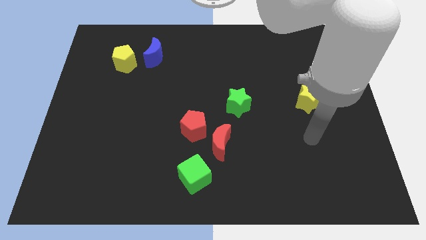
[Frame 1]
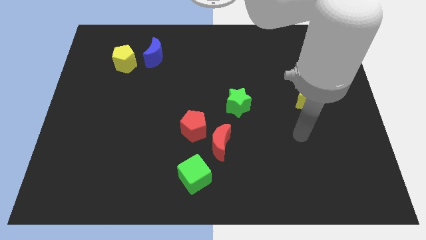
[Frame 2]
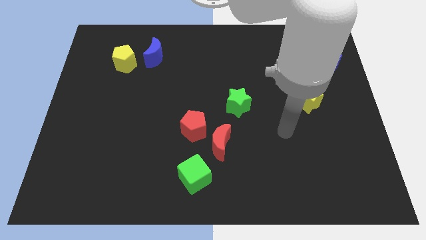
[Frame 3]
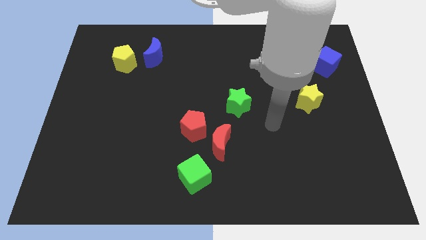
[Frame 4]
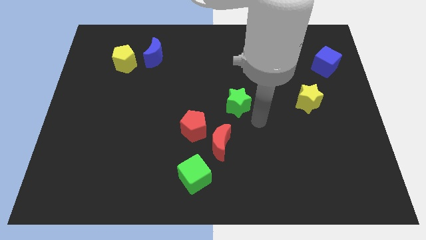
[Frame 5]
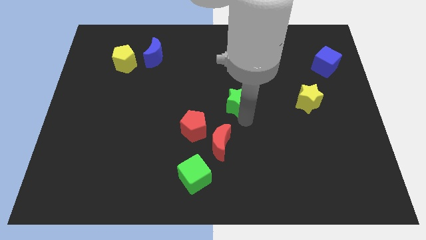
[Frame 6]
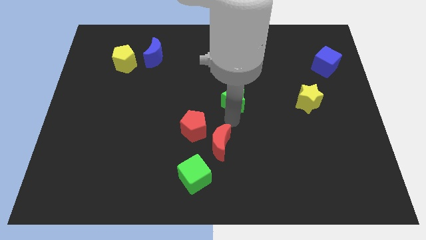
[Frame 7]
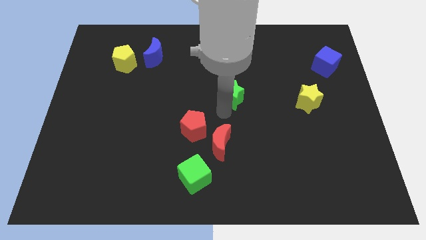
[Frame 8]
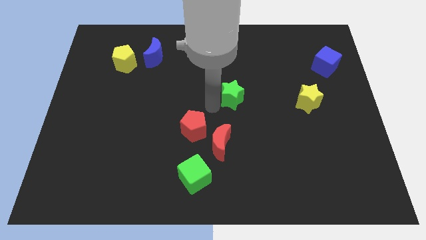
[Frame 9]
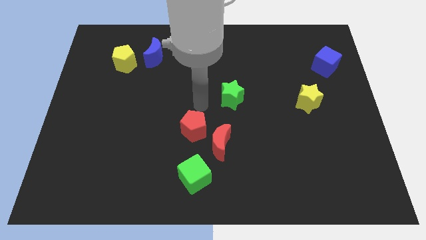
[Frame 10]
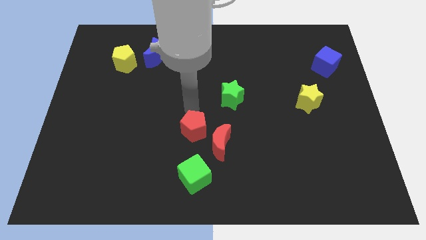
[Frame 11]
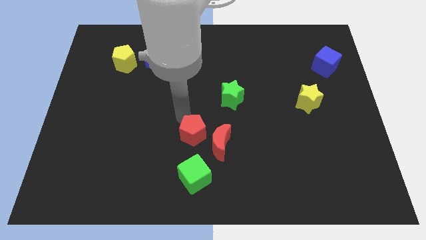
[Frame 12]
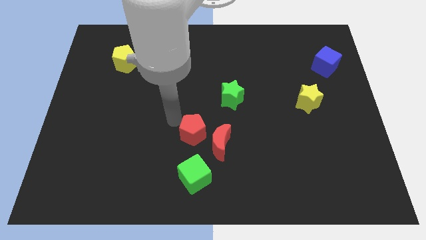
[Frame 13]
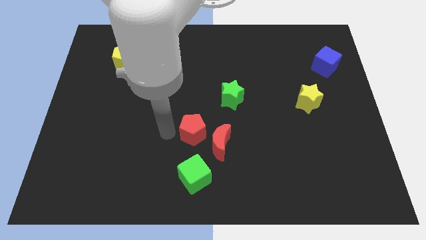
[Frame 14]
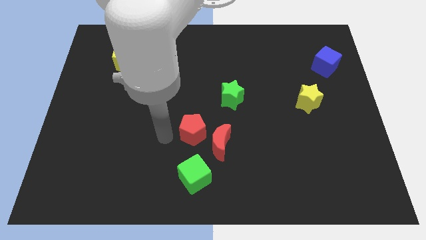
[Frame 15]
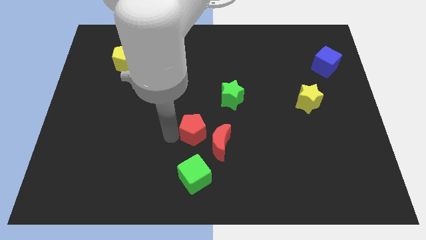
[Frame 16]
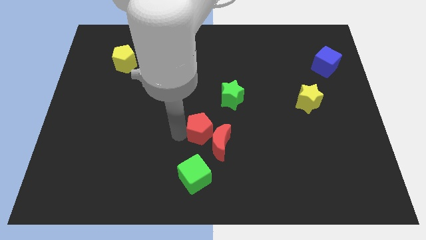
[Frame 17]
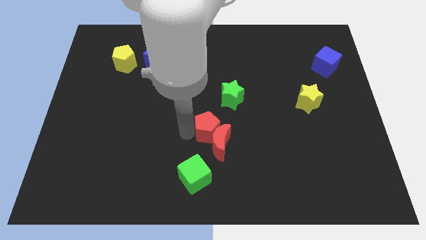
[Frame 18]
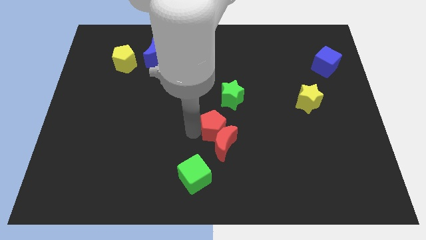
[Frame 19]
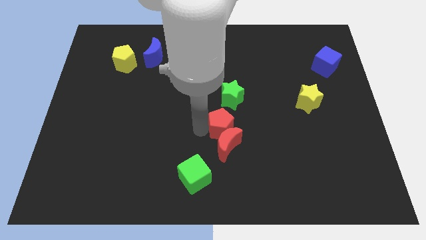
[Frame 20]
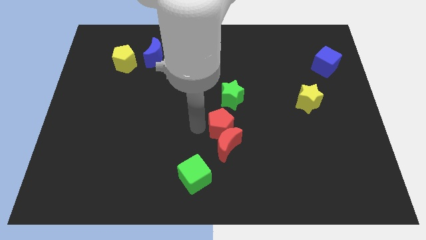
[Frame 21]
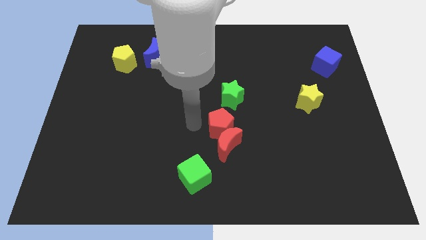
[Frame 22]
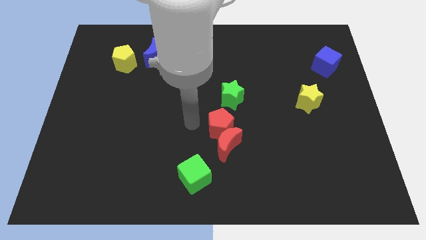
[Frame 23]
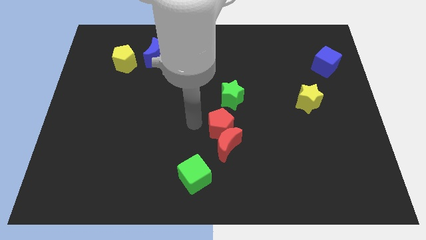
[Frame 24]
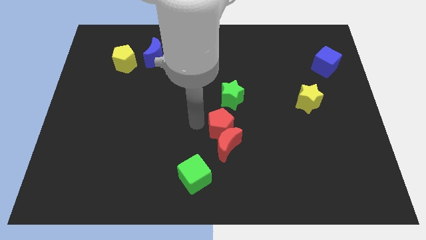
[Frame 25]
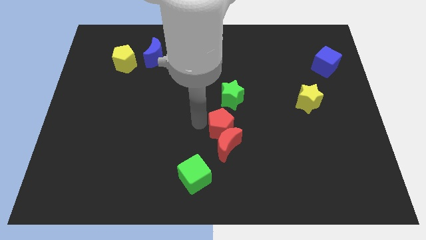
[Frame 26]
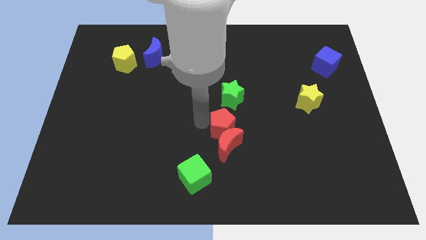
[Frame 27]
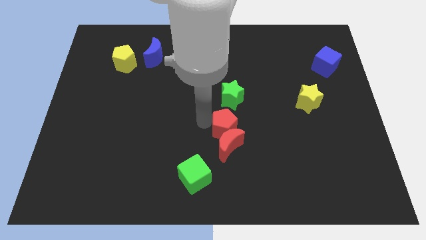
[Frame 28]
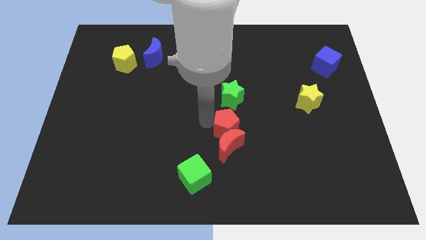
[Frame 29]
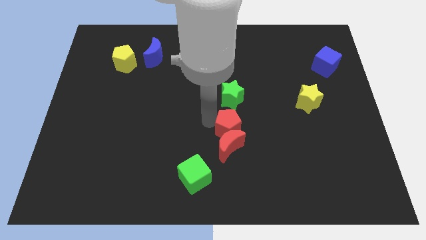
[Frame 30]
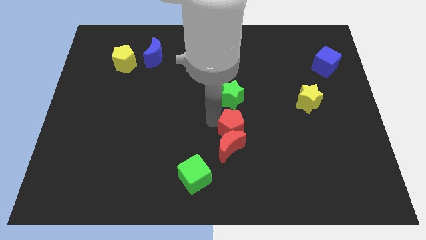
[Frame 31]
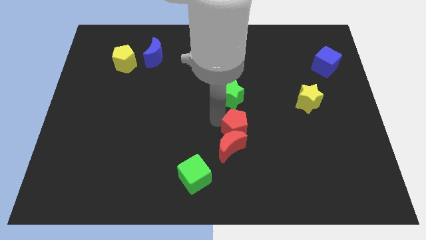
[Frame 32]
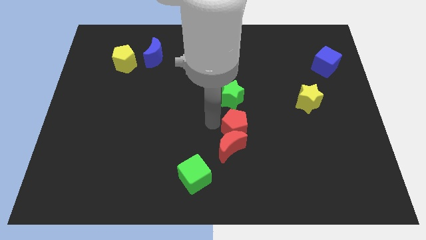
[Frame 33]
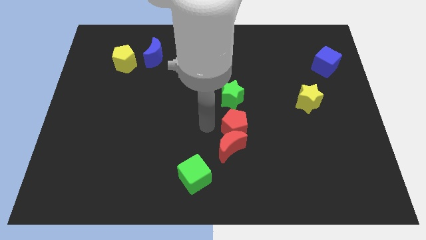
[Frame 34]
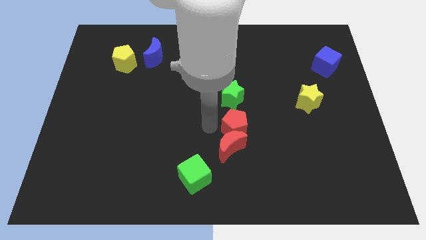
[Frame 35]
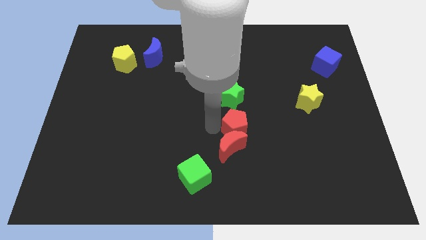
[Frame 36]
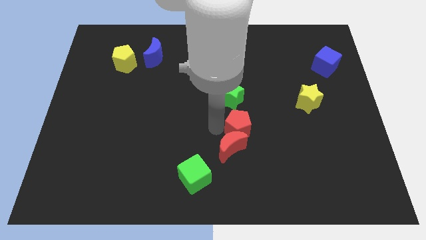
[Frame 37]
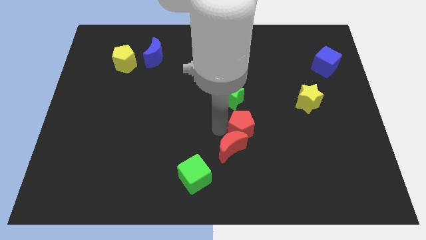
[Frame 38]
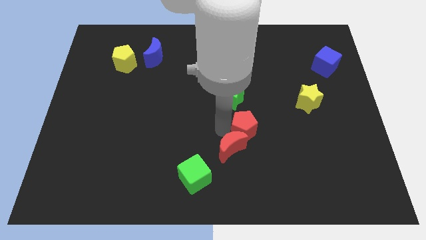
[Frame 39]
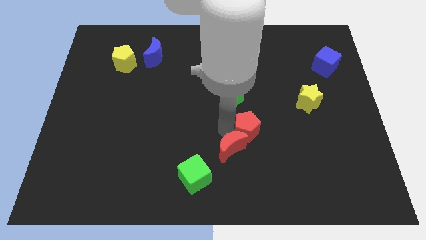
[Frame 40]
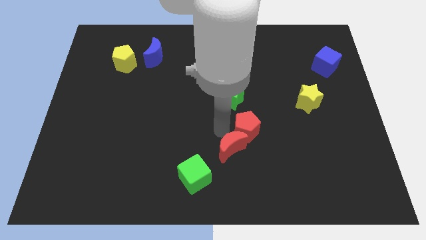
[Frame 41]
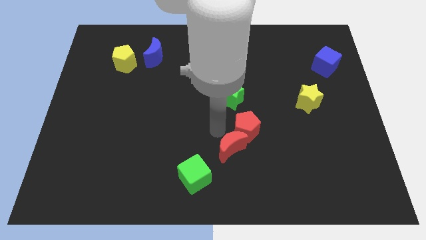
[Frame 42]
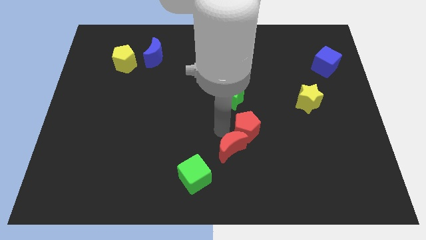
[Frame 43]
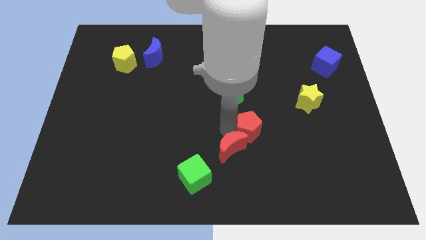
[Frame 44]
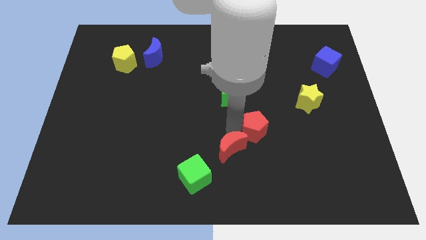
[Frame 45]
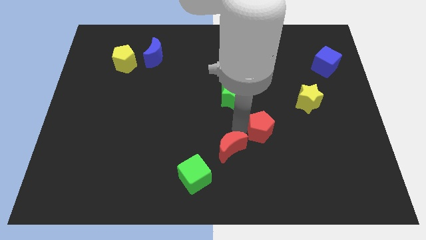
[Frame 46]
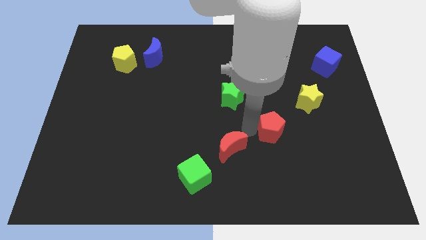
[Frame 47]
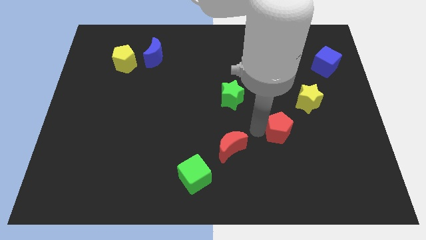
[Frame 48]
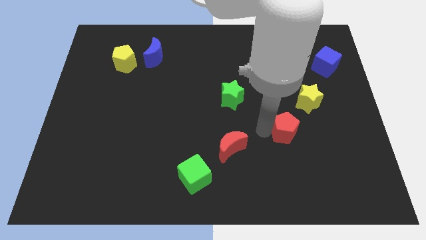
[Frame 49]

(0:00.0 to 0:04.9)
push the red pentagon right

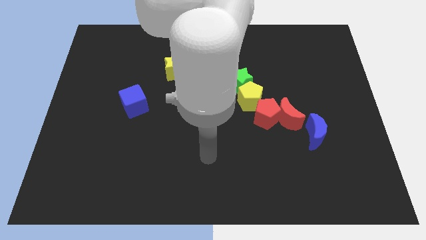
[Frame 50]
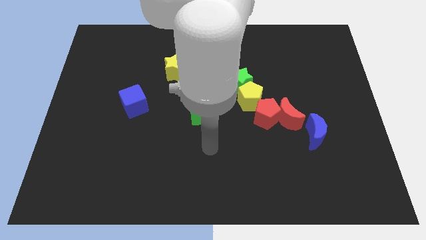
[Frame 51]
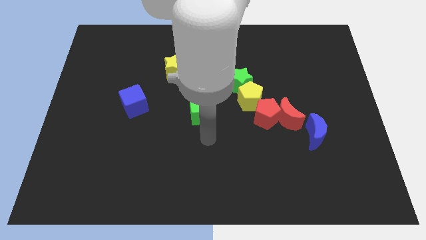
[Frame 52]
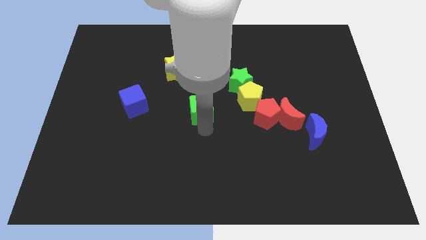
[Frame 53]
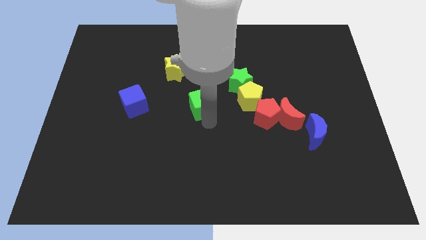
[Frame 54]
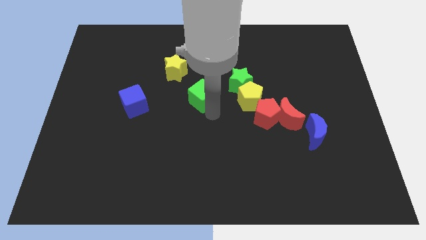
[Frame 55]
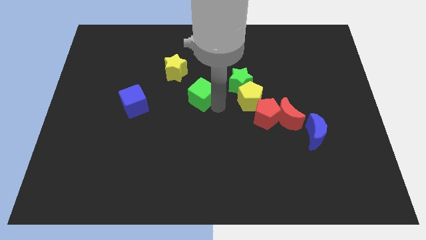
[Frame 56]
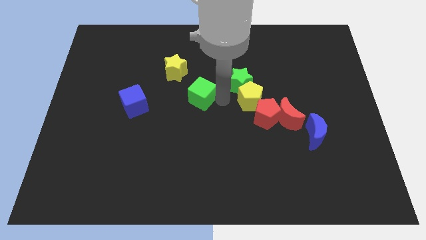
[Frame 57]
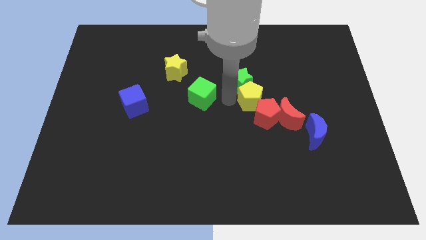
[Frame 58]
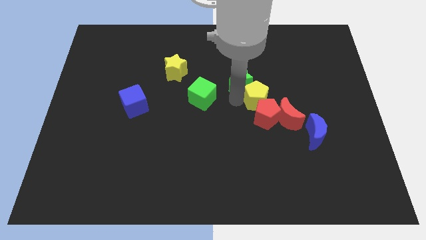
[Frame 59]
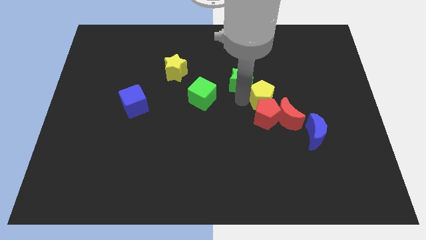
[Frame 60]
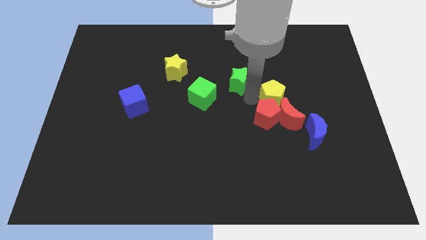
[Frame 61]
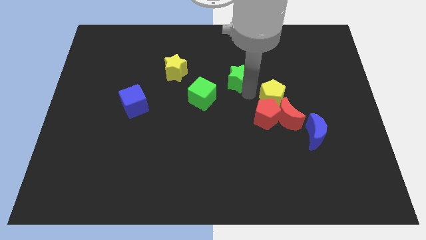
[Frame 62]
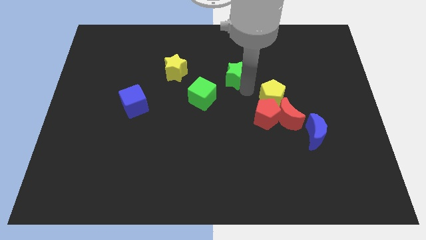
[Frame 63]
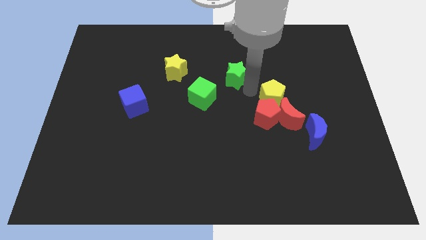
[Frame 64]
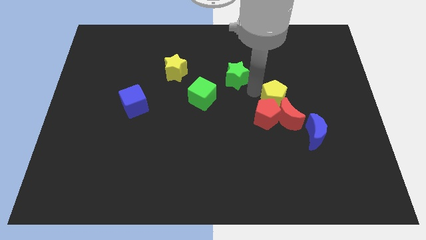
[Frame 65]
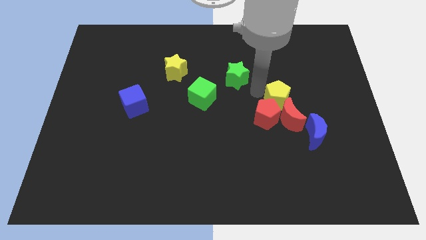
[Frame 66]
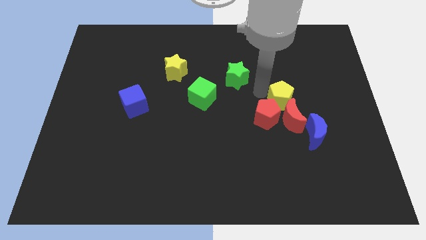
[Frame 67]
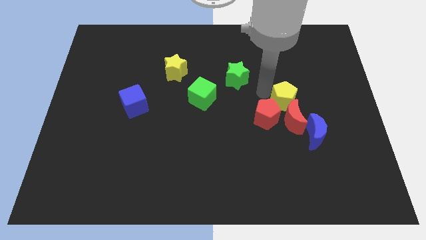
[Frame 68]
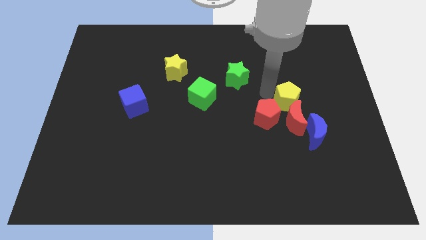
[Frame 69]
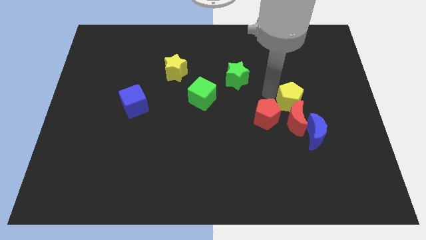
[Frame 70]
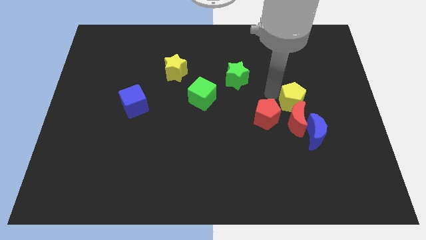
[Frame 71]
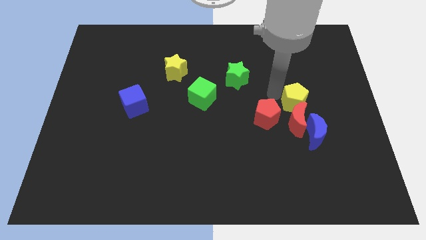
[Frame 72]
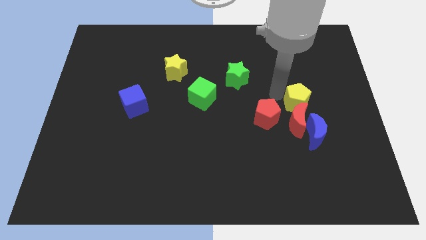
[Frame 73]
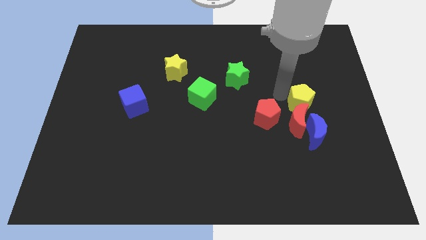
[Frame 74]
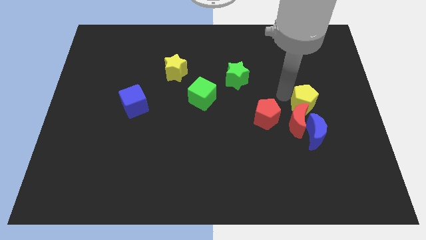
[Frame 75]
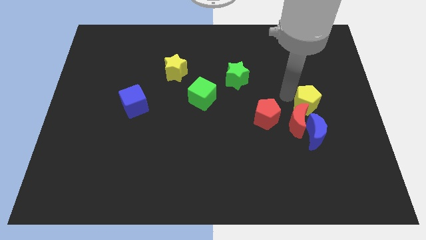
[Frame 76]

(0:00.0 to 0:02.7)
slightly push the yellow pentagon downwards and then to the right

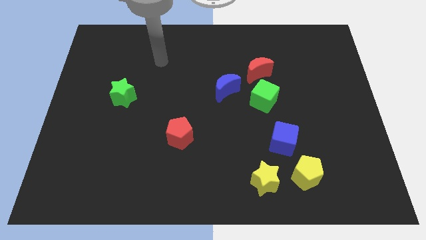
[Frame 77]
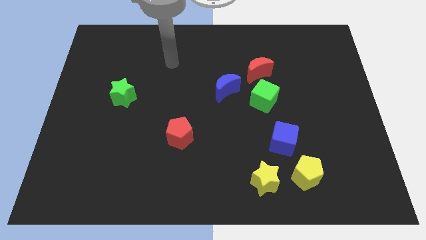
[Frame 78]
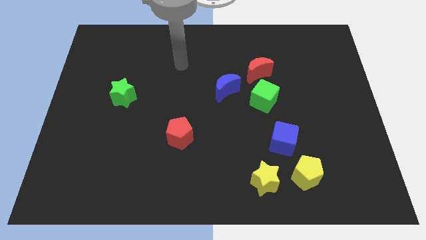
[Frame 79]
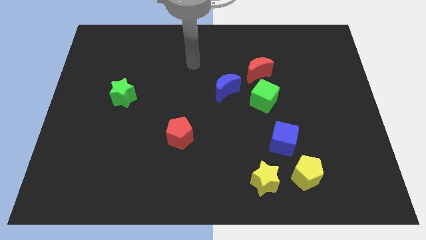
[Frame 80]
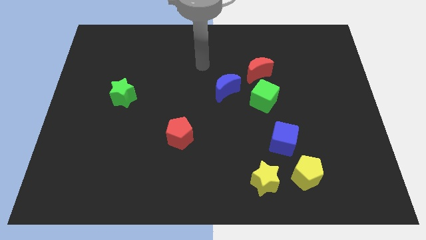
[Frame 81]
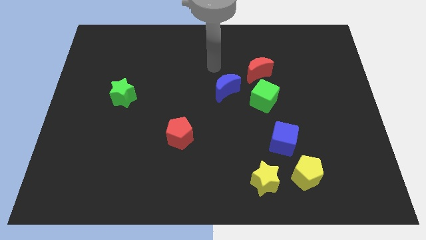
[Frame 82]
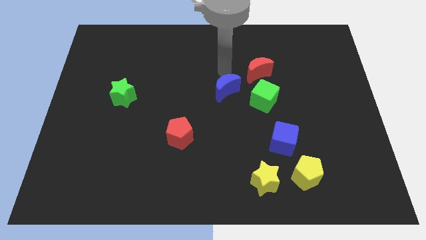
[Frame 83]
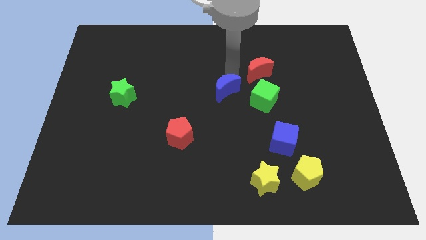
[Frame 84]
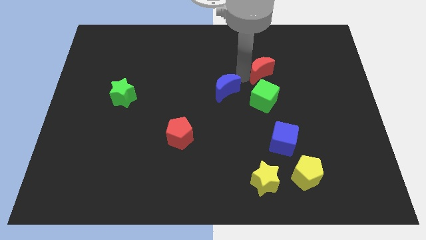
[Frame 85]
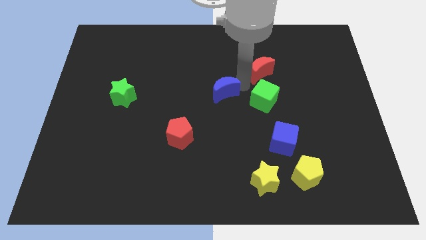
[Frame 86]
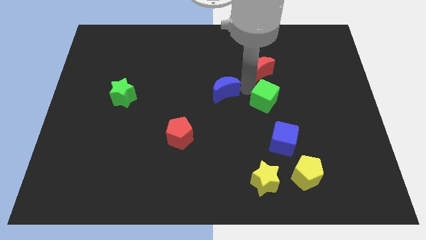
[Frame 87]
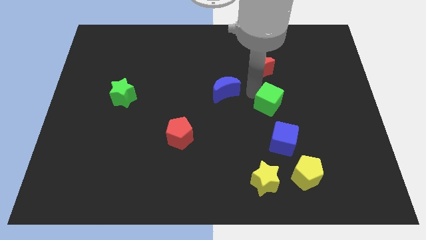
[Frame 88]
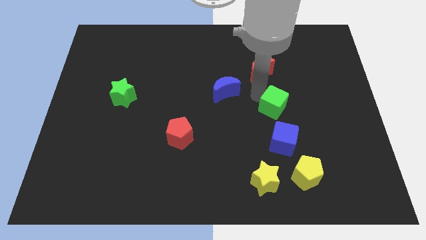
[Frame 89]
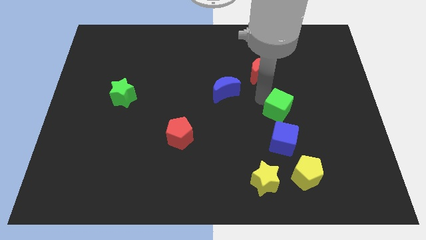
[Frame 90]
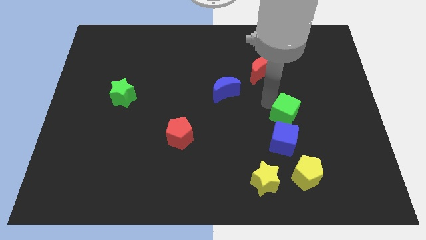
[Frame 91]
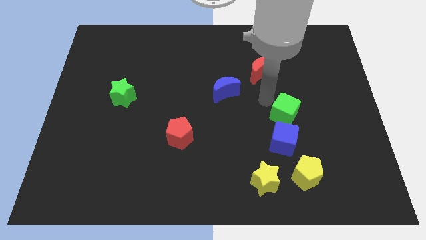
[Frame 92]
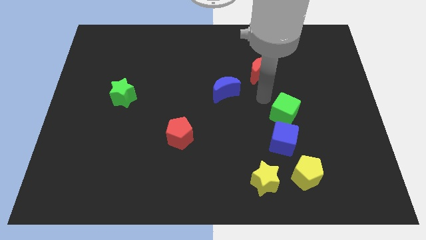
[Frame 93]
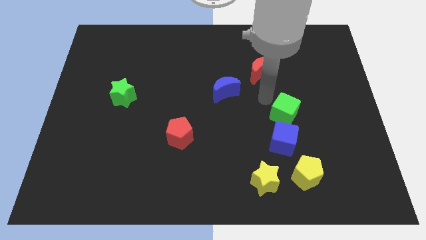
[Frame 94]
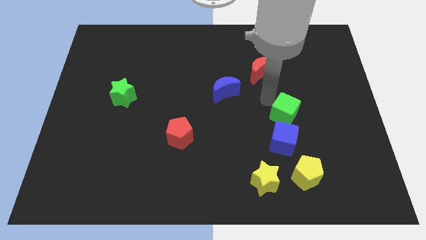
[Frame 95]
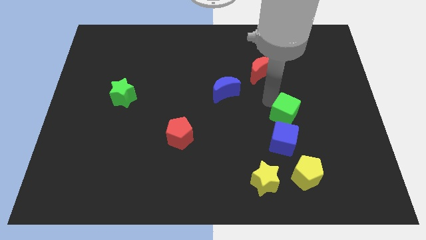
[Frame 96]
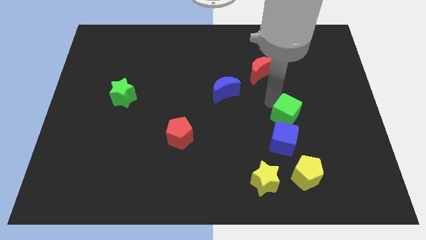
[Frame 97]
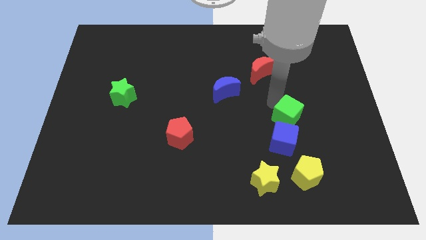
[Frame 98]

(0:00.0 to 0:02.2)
push the green cube somewhat diagonally downwards and to the right
